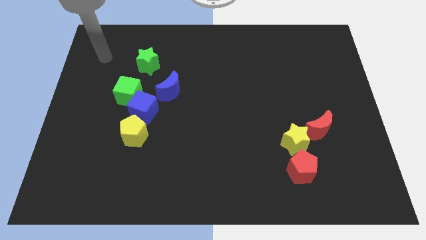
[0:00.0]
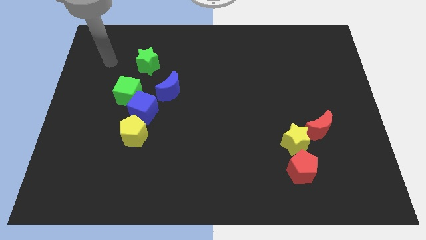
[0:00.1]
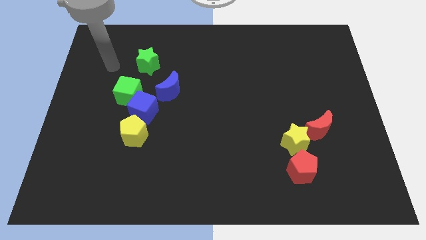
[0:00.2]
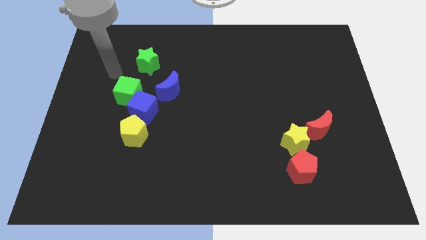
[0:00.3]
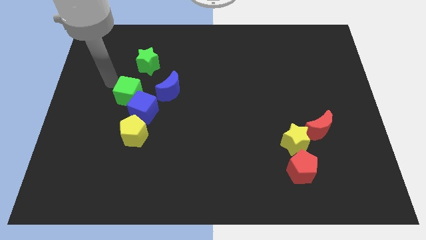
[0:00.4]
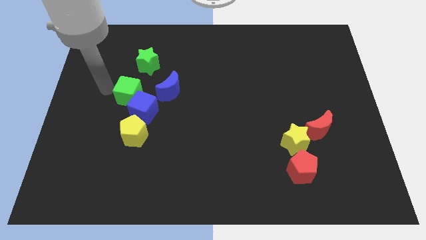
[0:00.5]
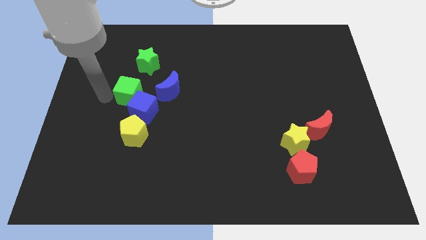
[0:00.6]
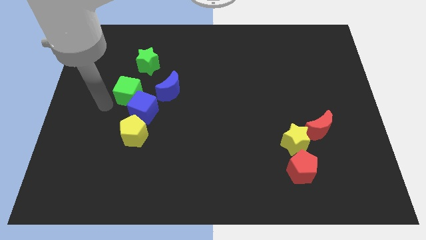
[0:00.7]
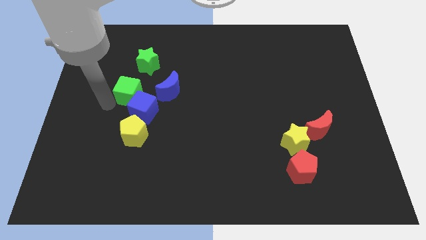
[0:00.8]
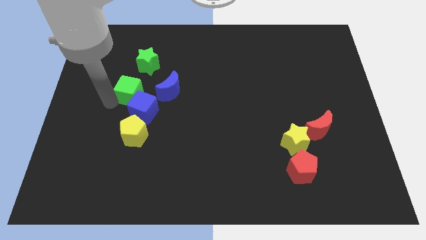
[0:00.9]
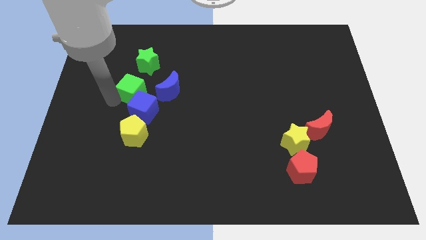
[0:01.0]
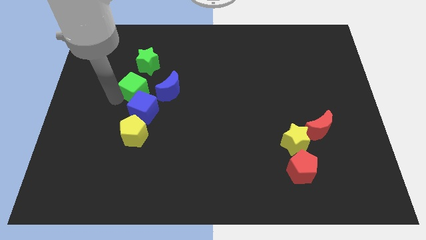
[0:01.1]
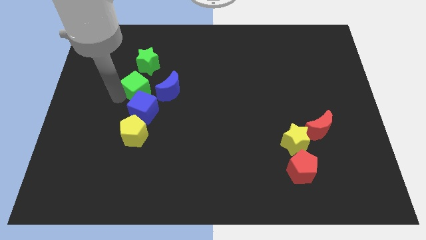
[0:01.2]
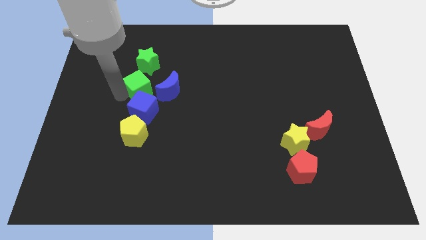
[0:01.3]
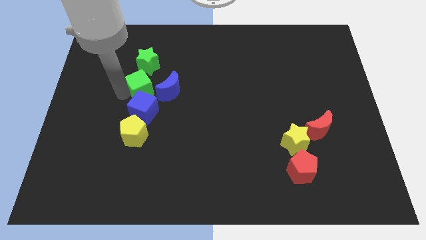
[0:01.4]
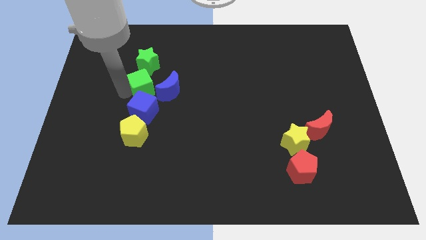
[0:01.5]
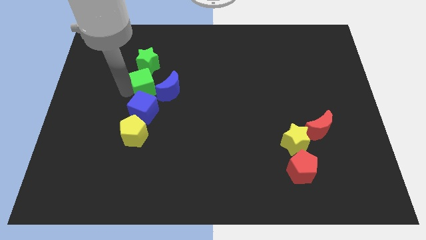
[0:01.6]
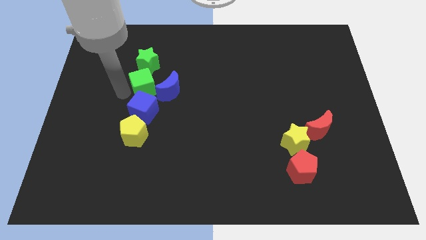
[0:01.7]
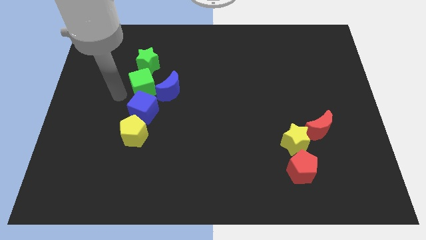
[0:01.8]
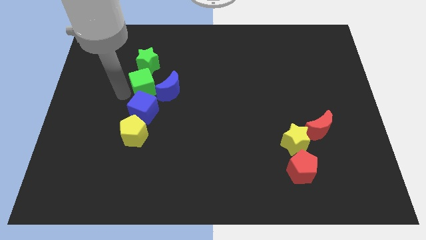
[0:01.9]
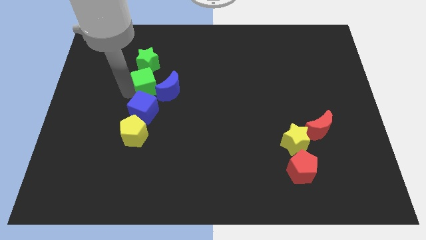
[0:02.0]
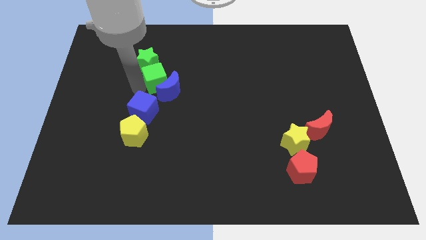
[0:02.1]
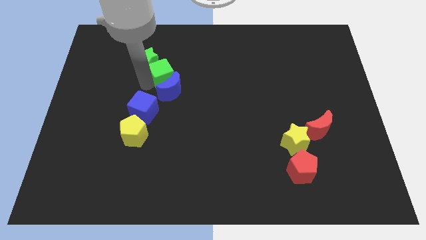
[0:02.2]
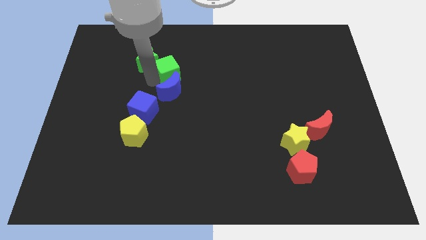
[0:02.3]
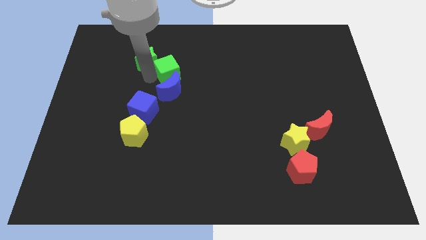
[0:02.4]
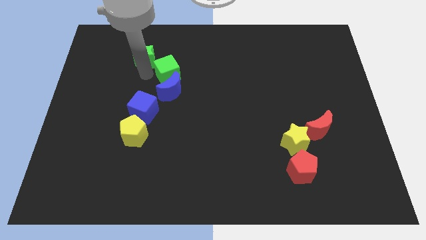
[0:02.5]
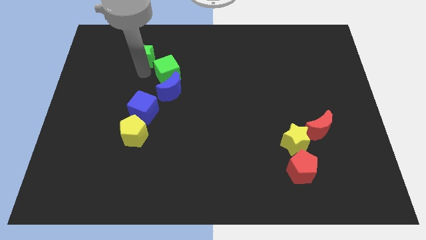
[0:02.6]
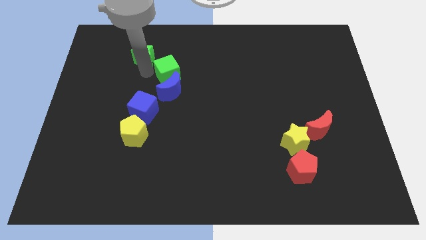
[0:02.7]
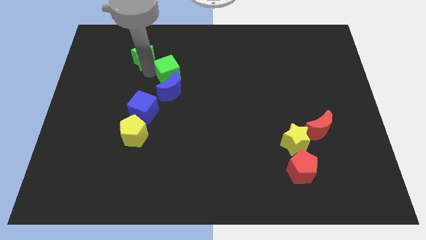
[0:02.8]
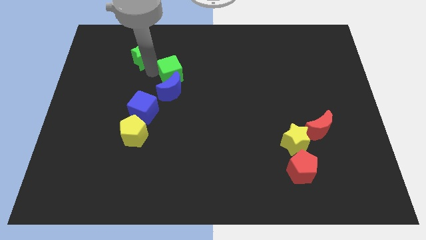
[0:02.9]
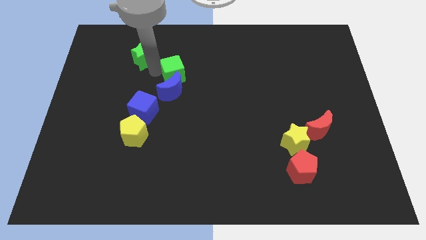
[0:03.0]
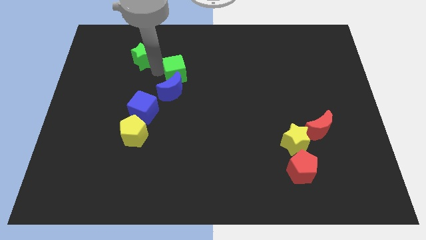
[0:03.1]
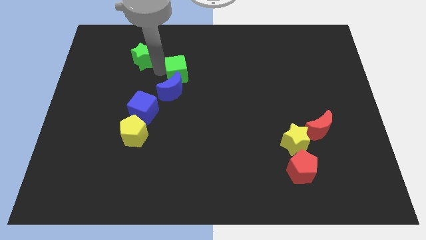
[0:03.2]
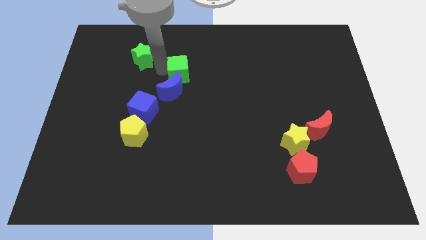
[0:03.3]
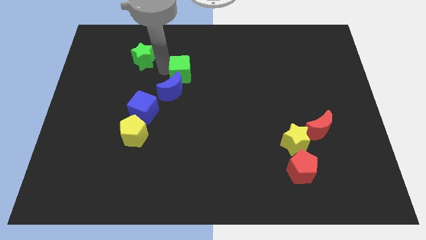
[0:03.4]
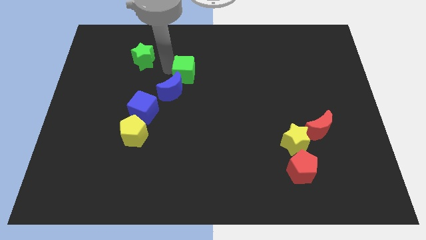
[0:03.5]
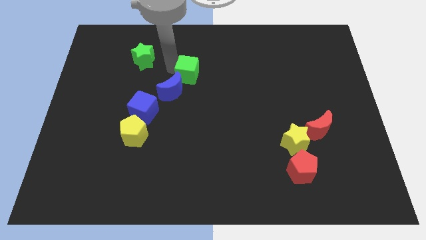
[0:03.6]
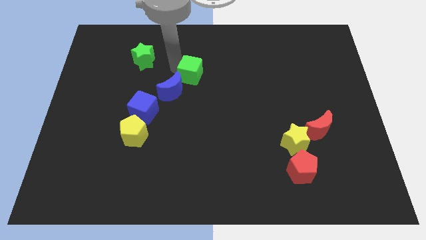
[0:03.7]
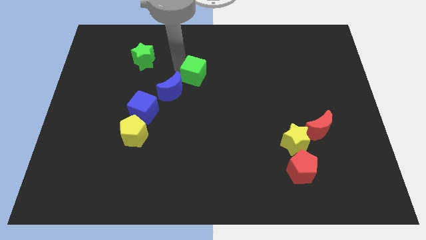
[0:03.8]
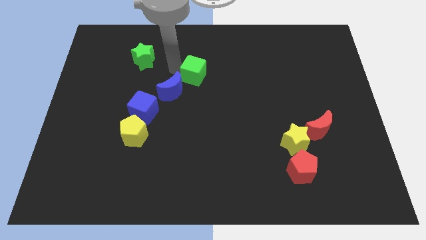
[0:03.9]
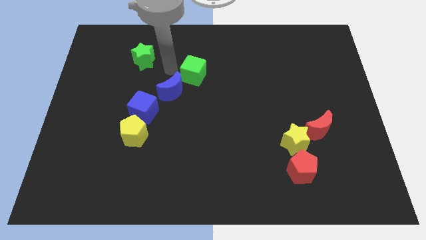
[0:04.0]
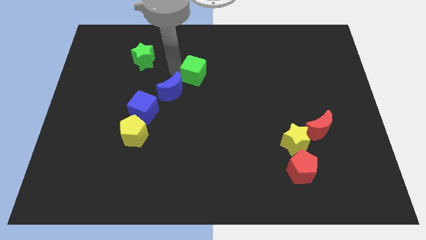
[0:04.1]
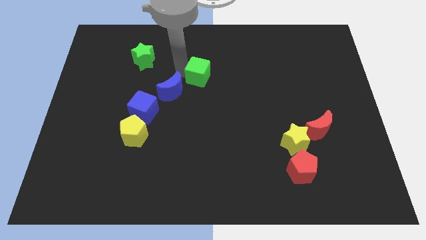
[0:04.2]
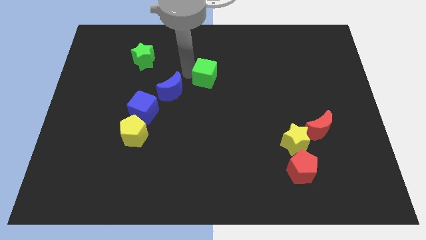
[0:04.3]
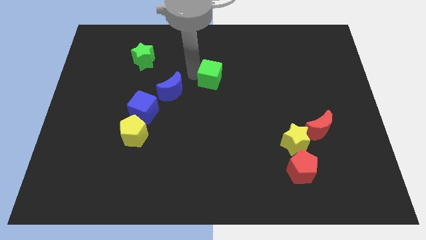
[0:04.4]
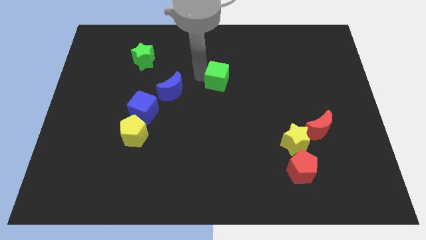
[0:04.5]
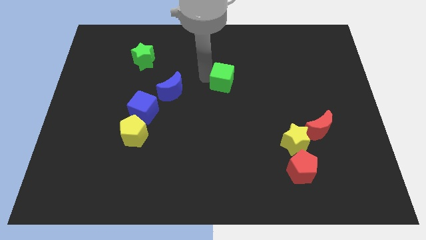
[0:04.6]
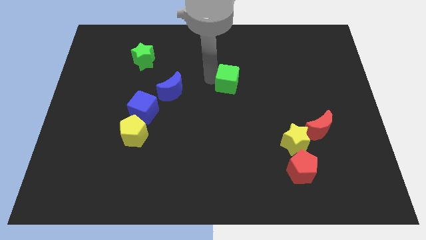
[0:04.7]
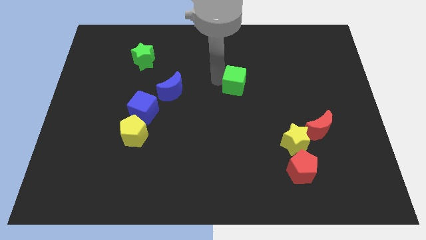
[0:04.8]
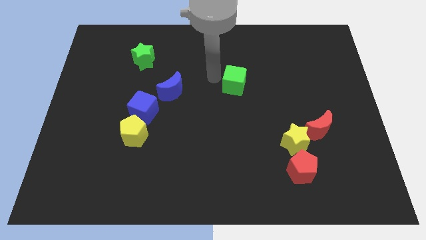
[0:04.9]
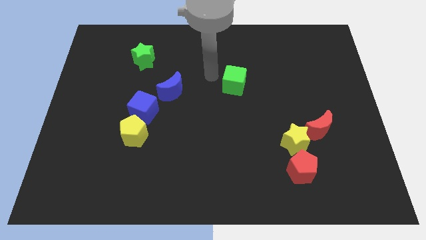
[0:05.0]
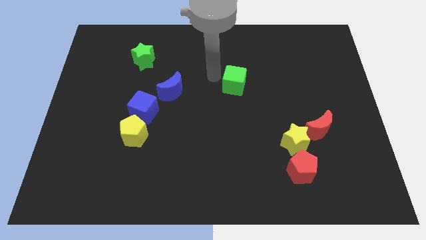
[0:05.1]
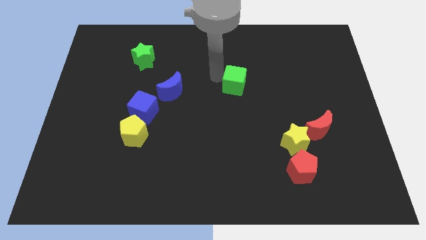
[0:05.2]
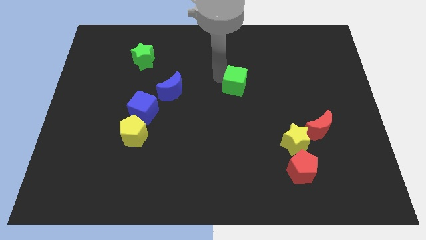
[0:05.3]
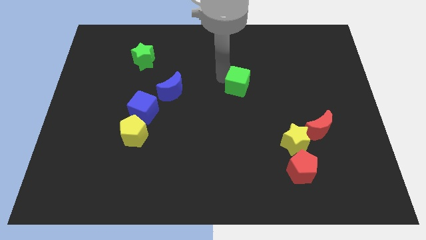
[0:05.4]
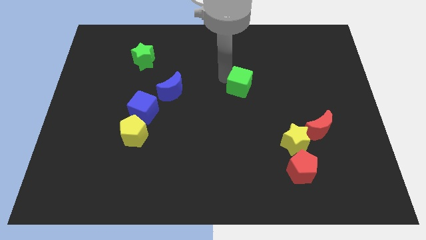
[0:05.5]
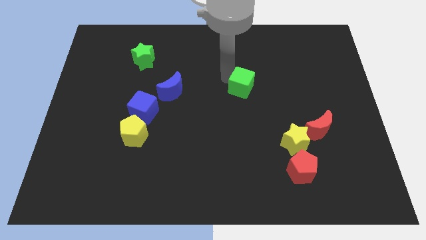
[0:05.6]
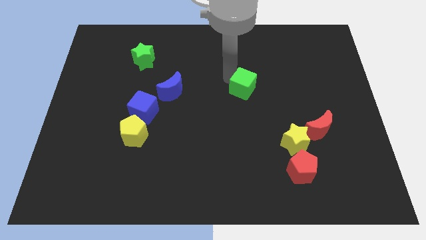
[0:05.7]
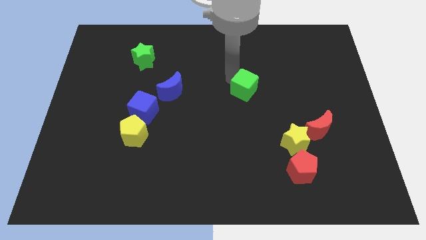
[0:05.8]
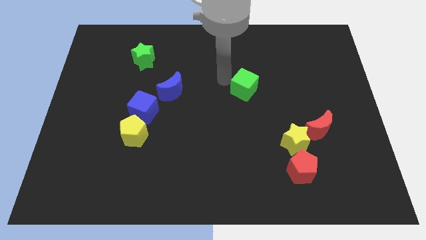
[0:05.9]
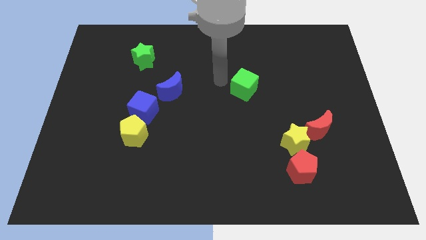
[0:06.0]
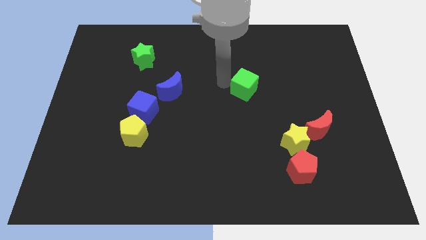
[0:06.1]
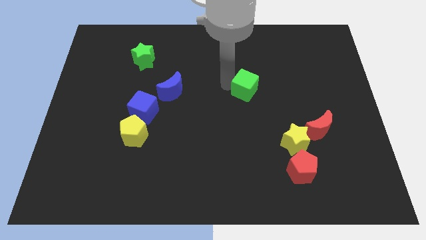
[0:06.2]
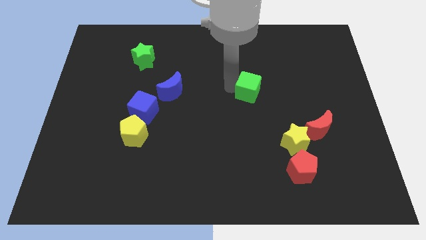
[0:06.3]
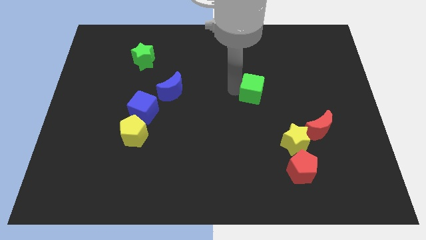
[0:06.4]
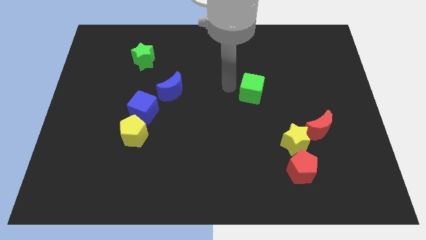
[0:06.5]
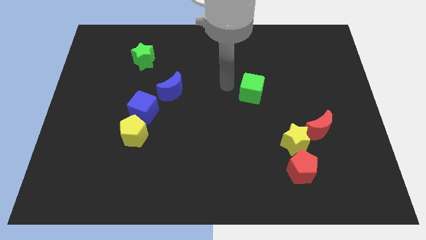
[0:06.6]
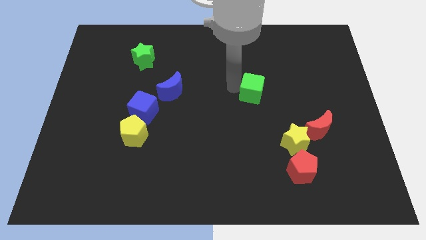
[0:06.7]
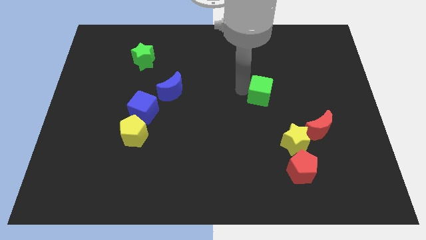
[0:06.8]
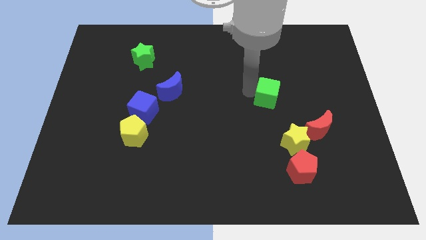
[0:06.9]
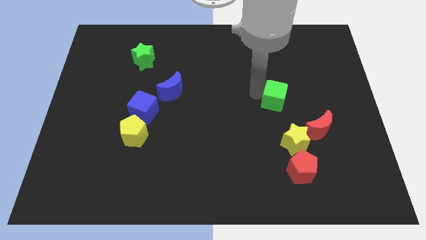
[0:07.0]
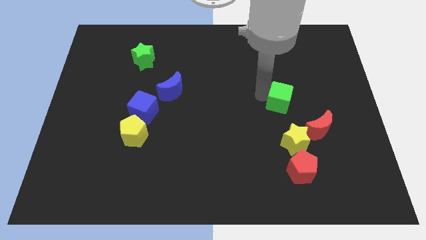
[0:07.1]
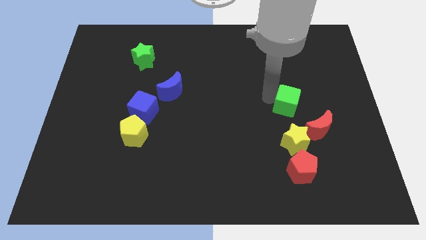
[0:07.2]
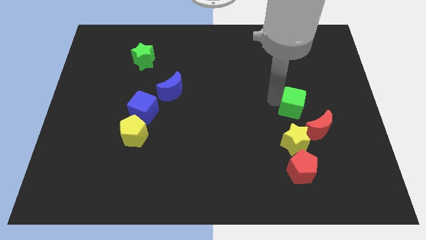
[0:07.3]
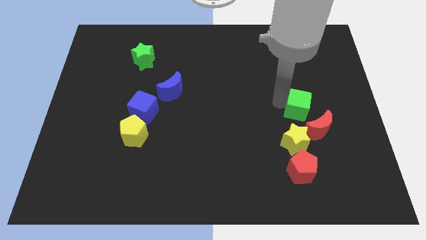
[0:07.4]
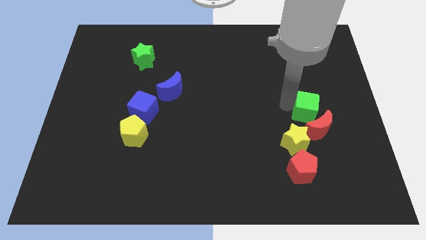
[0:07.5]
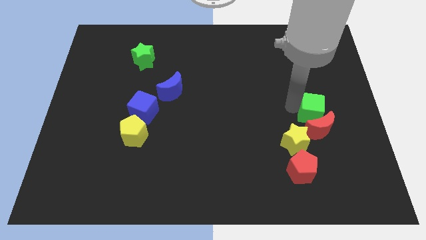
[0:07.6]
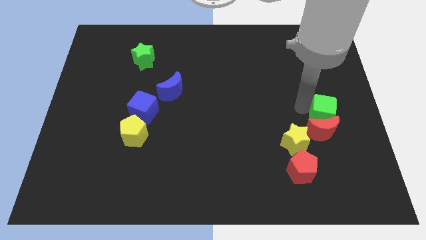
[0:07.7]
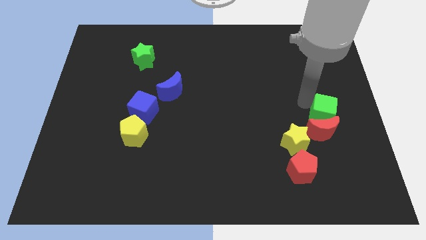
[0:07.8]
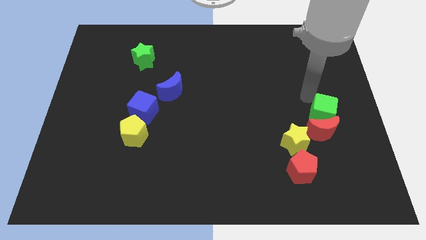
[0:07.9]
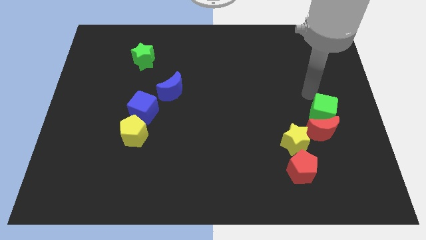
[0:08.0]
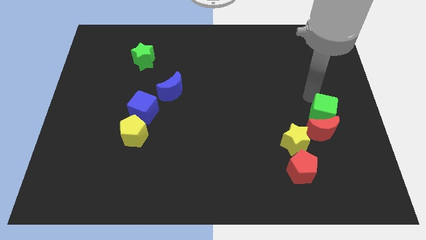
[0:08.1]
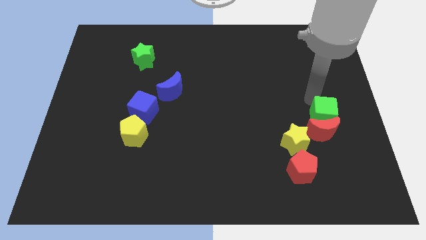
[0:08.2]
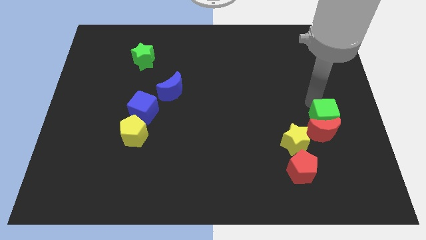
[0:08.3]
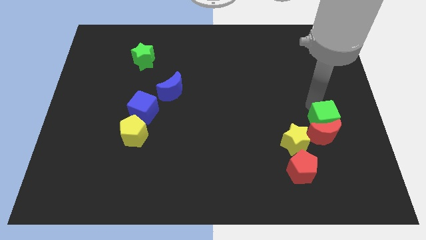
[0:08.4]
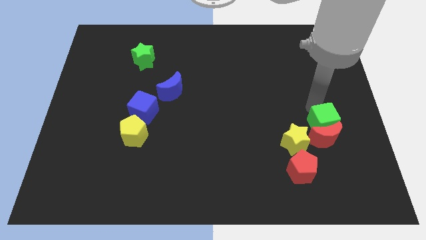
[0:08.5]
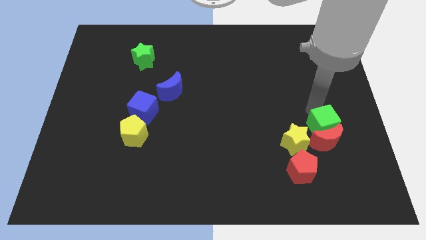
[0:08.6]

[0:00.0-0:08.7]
slide the green cube right of the yellow star
